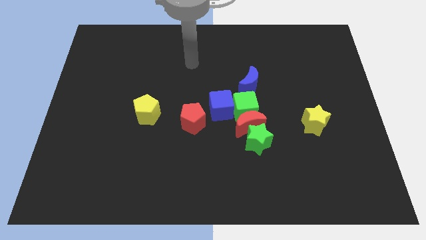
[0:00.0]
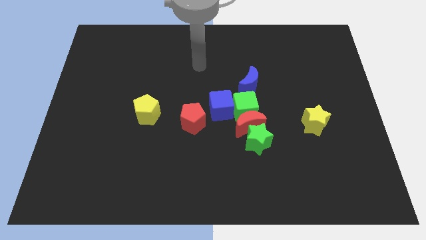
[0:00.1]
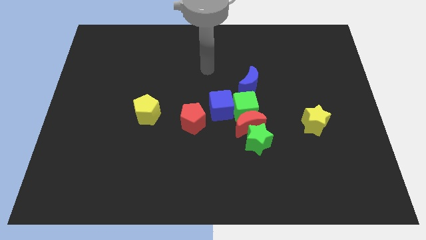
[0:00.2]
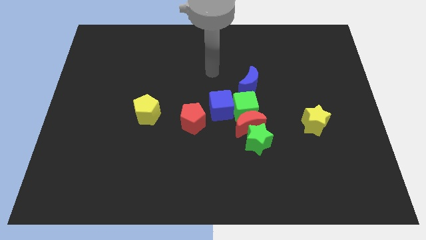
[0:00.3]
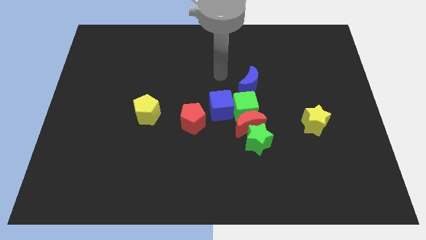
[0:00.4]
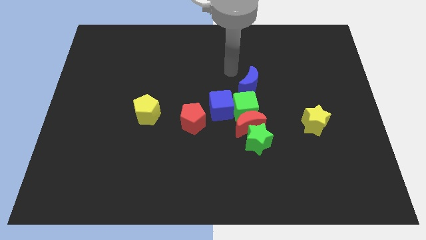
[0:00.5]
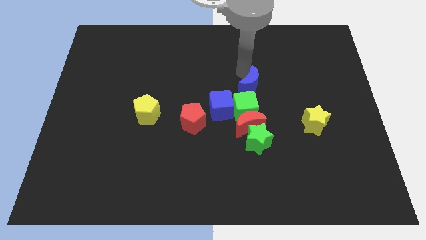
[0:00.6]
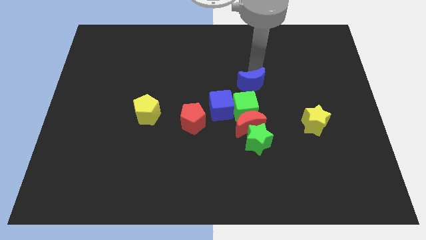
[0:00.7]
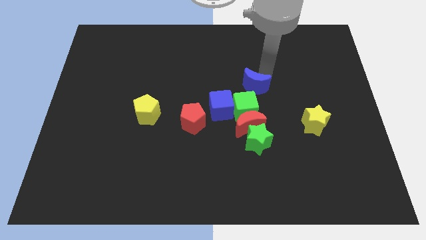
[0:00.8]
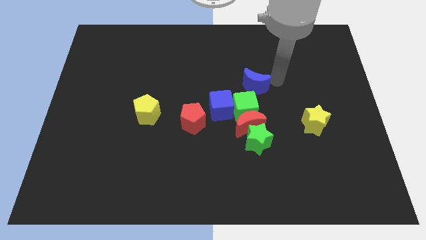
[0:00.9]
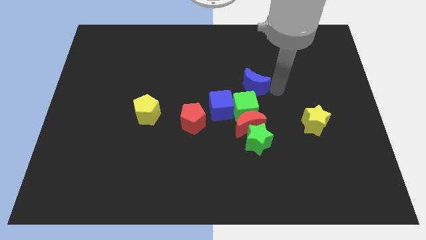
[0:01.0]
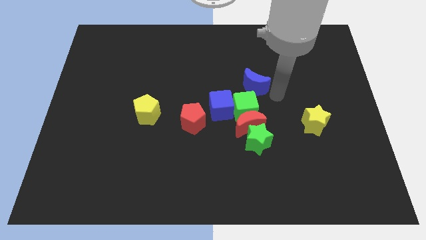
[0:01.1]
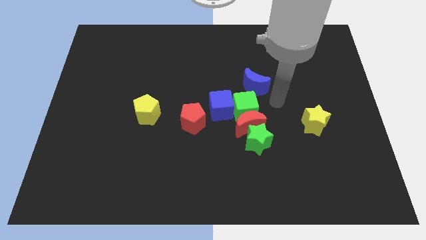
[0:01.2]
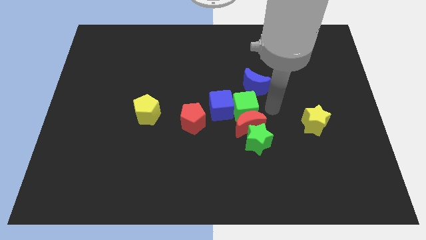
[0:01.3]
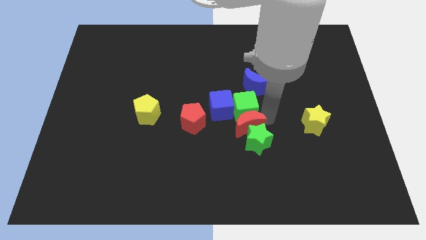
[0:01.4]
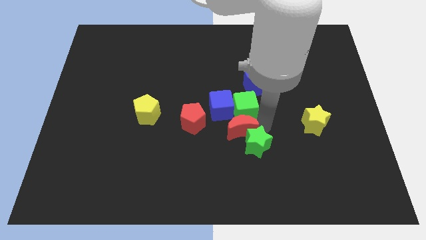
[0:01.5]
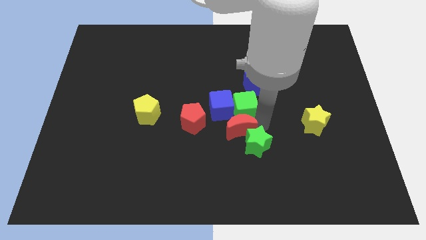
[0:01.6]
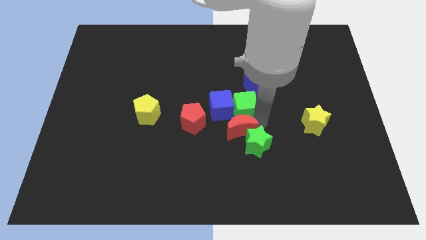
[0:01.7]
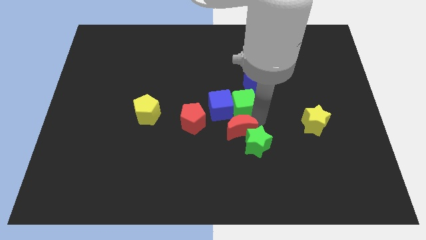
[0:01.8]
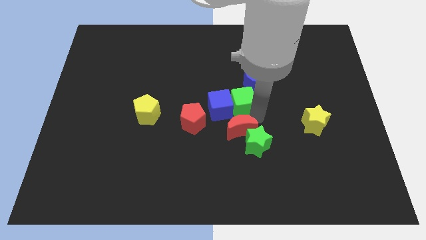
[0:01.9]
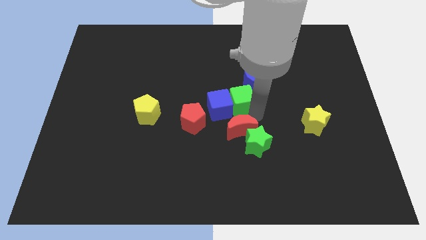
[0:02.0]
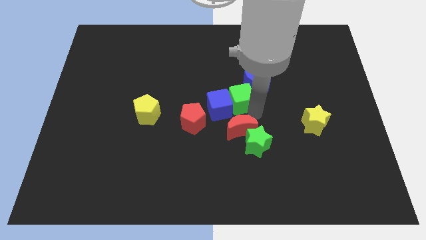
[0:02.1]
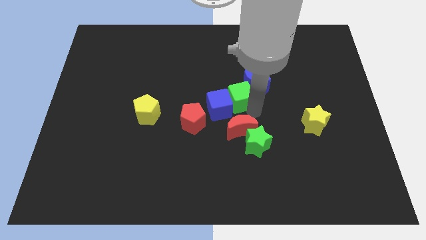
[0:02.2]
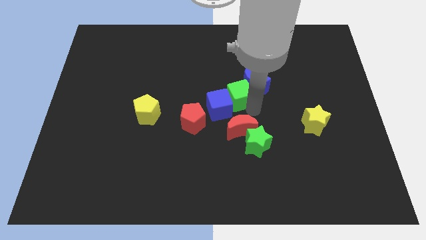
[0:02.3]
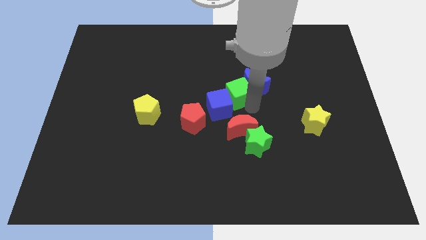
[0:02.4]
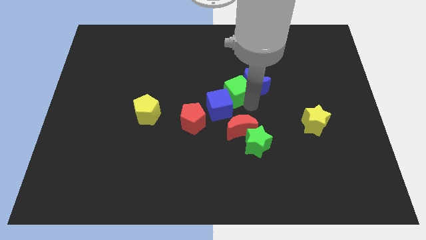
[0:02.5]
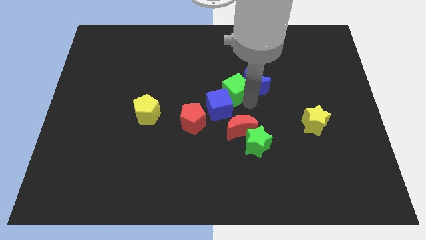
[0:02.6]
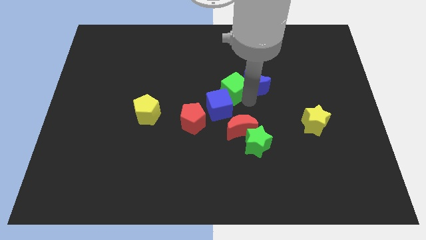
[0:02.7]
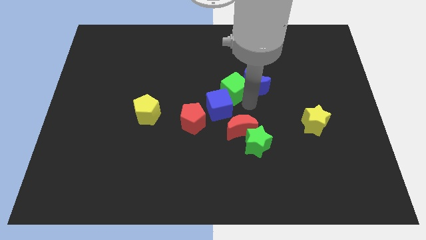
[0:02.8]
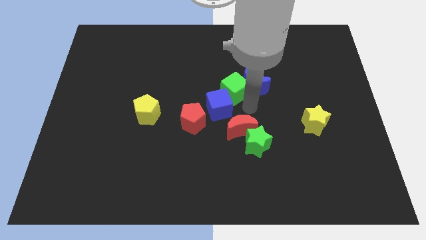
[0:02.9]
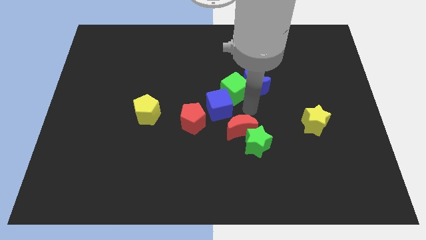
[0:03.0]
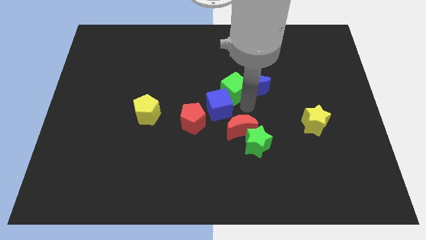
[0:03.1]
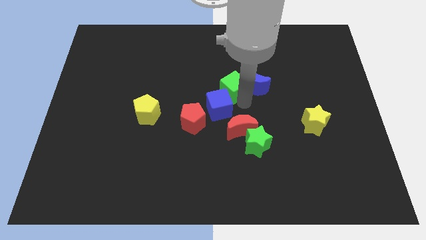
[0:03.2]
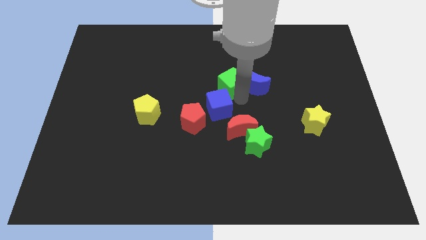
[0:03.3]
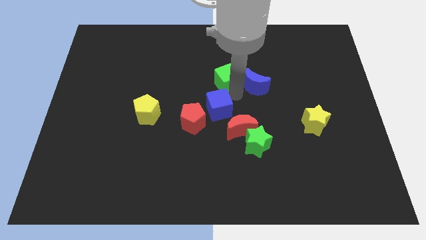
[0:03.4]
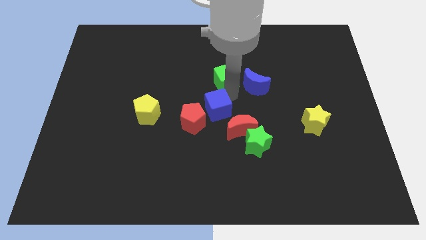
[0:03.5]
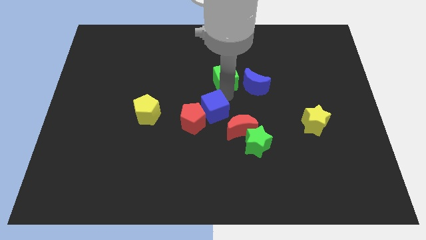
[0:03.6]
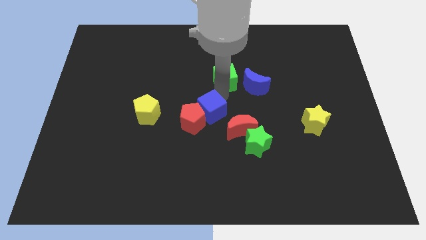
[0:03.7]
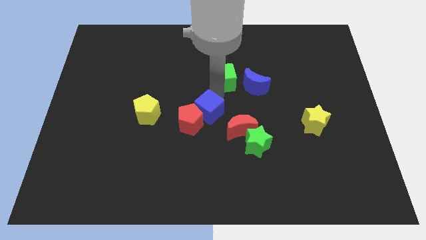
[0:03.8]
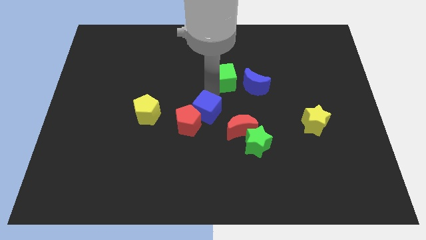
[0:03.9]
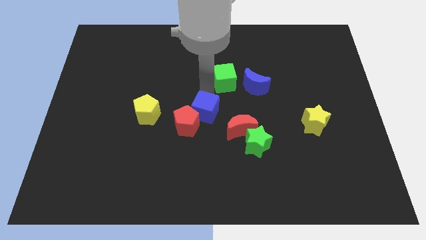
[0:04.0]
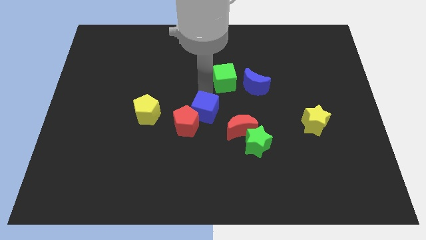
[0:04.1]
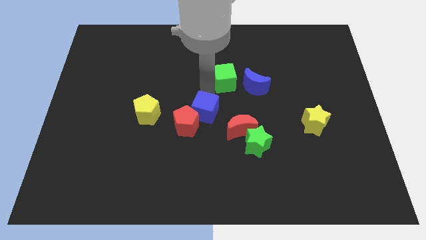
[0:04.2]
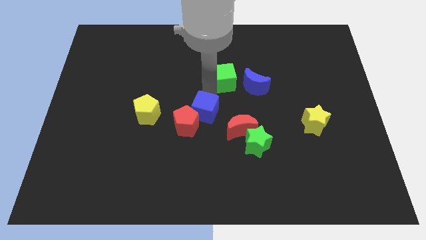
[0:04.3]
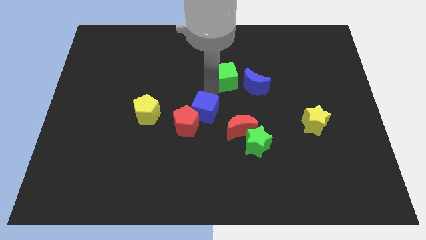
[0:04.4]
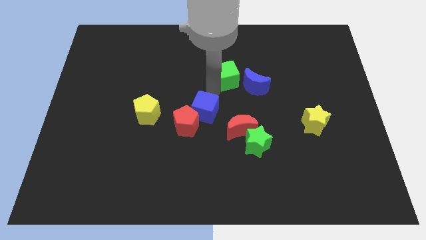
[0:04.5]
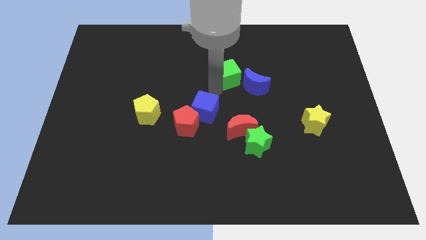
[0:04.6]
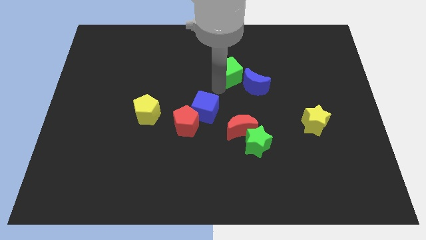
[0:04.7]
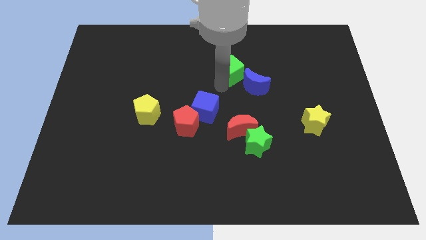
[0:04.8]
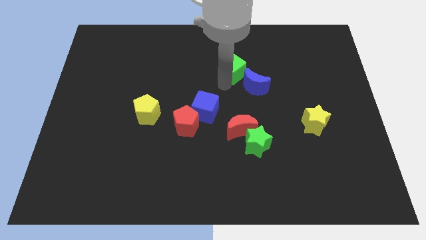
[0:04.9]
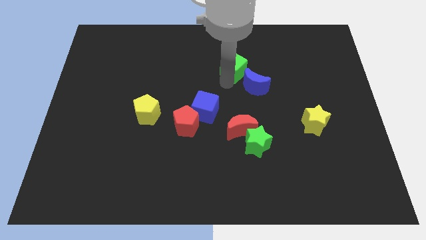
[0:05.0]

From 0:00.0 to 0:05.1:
push the green cube to the top side of the blue moon

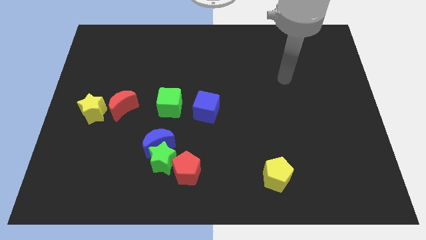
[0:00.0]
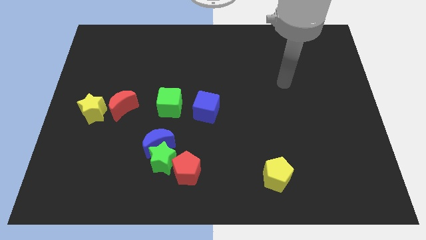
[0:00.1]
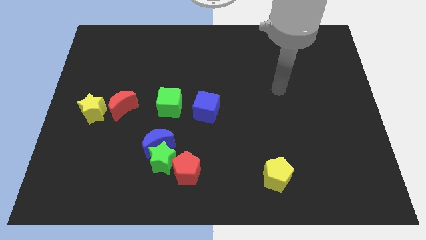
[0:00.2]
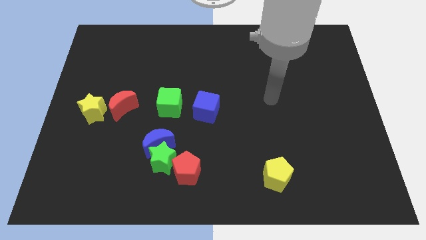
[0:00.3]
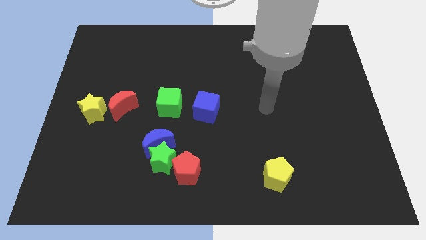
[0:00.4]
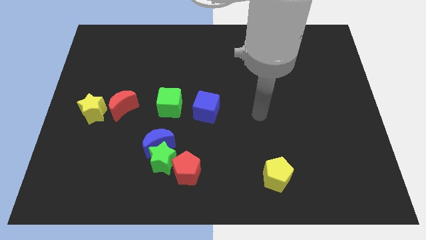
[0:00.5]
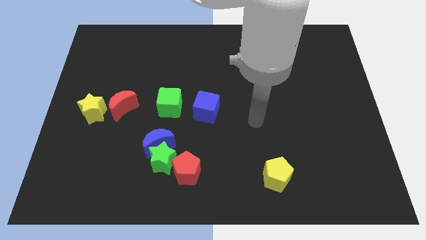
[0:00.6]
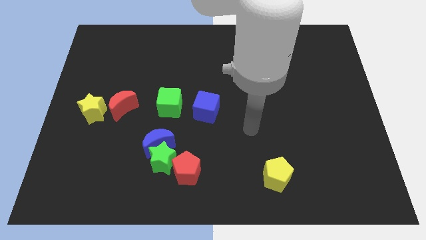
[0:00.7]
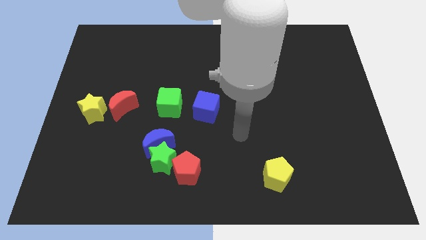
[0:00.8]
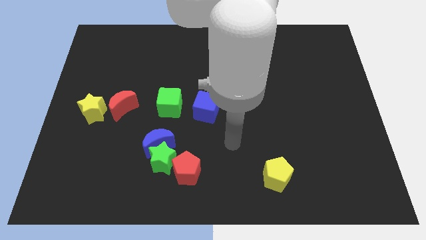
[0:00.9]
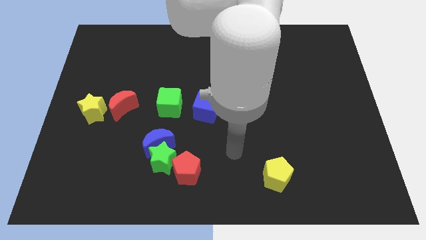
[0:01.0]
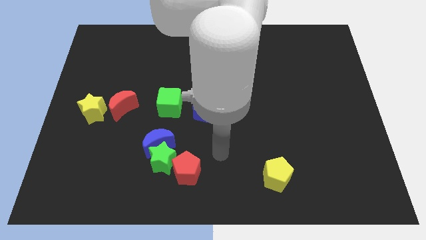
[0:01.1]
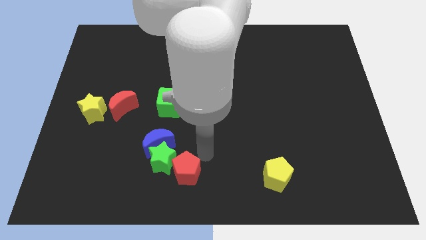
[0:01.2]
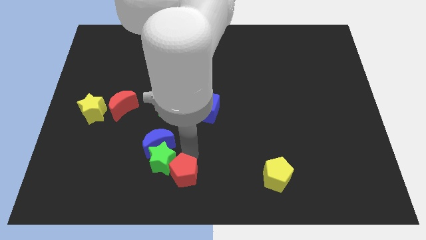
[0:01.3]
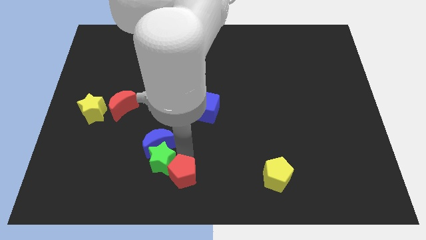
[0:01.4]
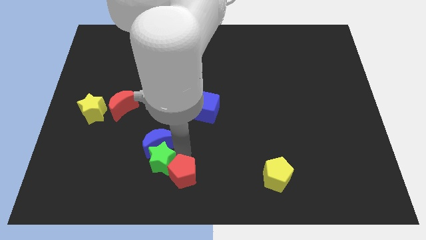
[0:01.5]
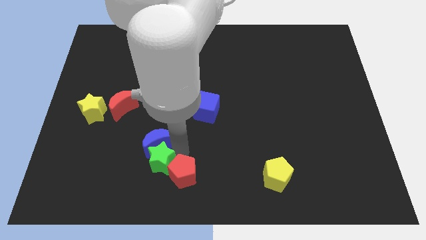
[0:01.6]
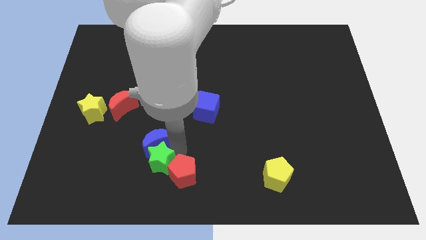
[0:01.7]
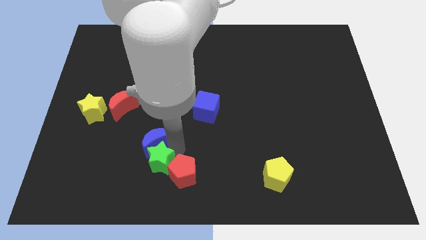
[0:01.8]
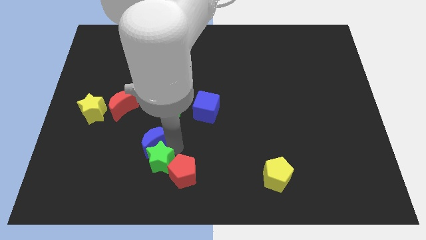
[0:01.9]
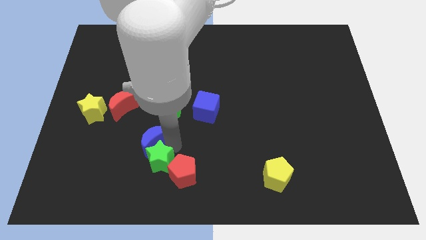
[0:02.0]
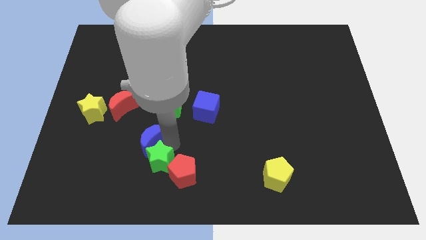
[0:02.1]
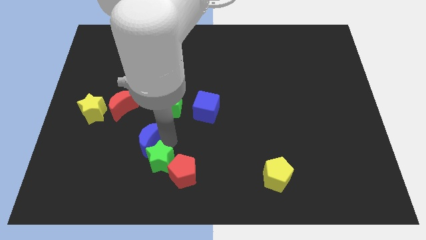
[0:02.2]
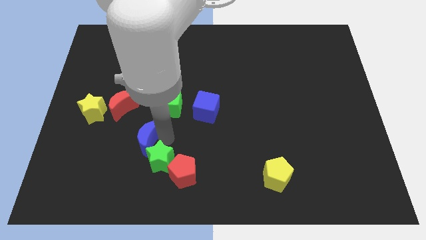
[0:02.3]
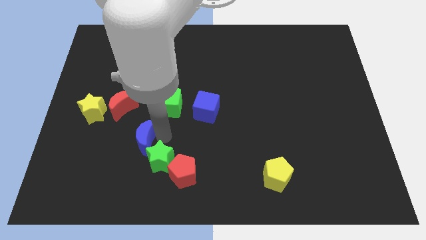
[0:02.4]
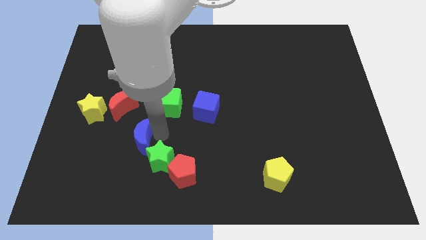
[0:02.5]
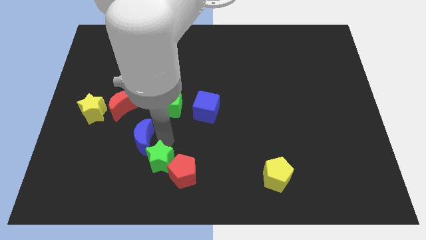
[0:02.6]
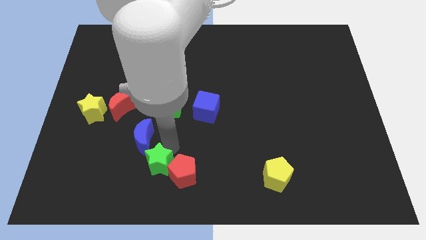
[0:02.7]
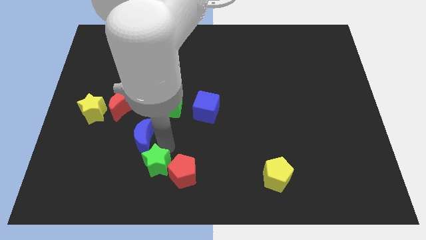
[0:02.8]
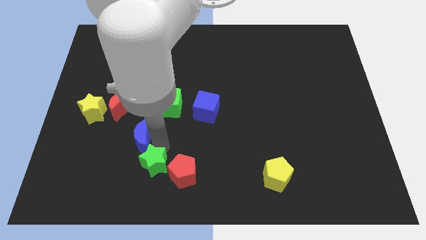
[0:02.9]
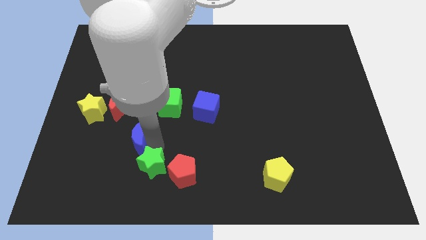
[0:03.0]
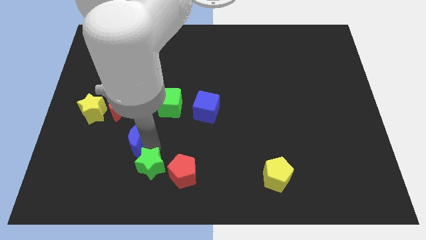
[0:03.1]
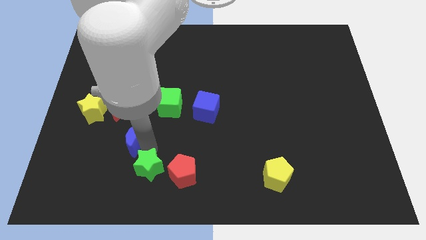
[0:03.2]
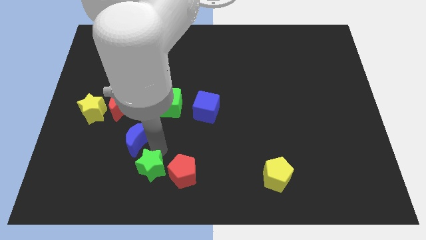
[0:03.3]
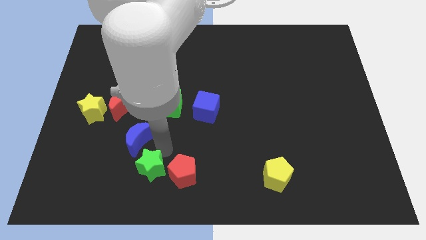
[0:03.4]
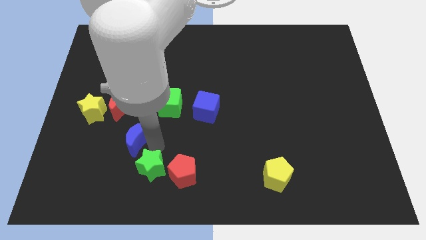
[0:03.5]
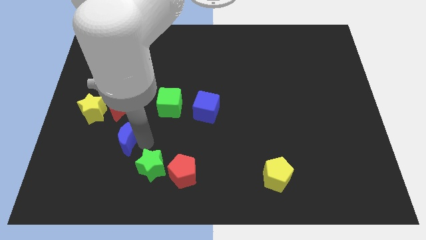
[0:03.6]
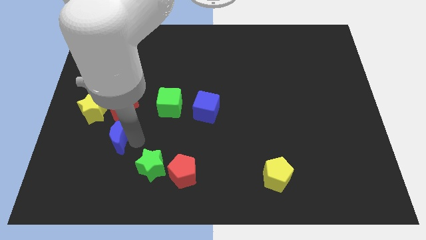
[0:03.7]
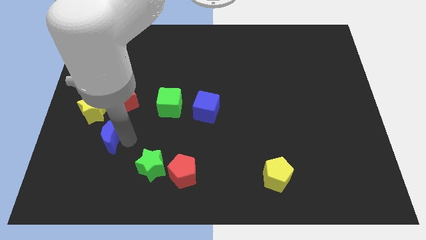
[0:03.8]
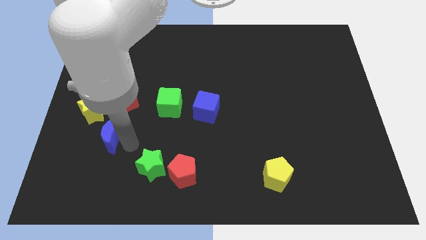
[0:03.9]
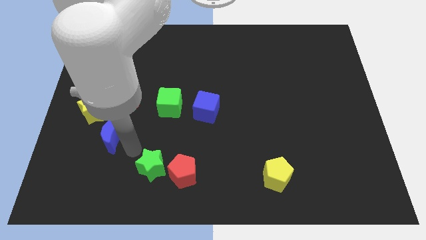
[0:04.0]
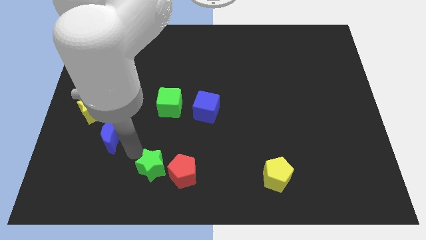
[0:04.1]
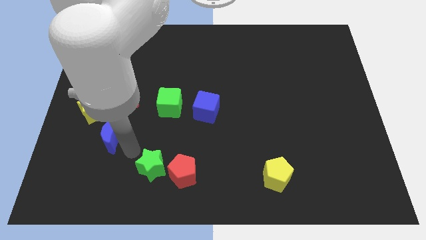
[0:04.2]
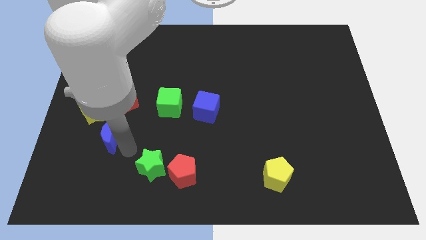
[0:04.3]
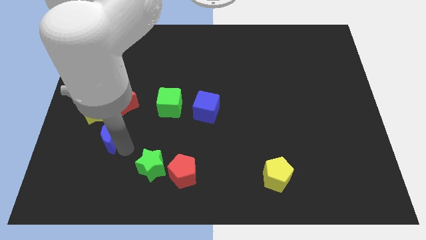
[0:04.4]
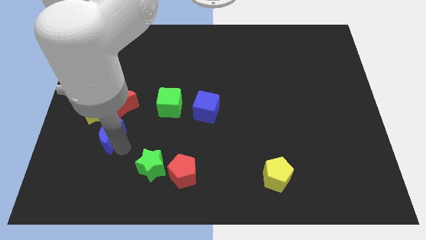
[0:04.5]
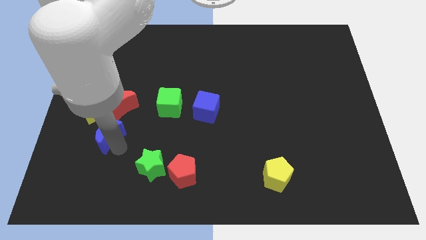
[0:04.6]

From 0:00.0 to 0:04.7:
push the blue moon diagonally down and to the left of the red moon
